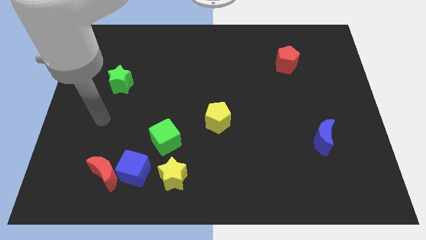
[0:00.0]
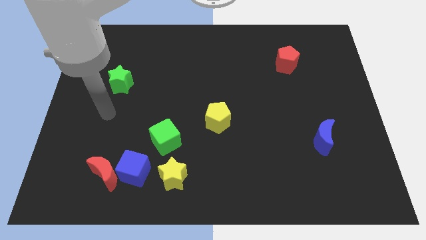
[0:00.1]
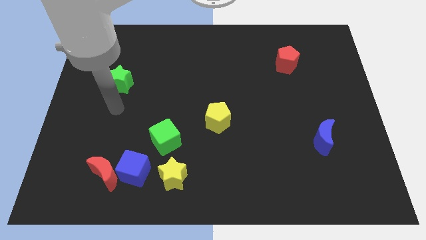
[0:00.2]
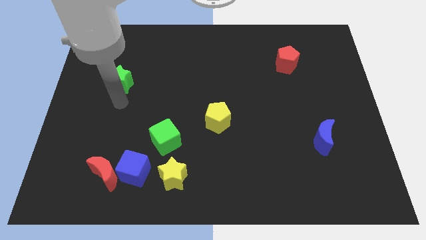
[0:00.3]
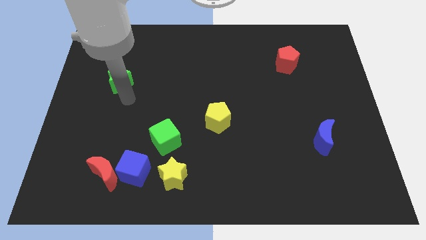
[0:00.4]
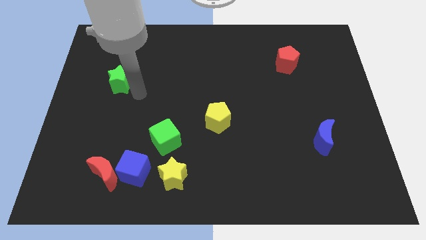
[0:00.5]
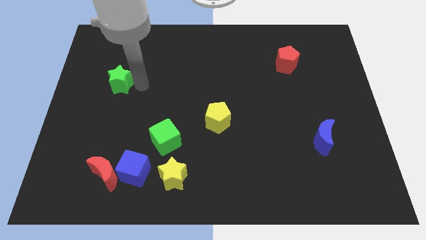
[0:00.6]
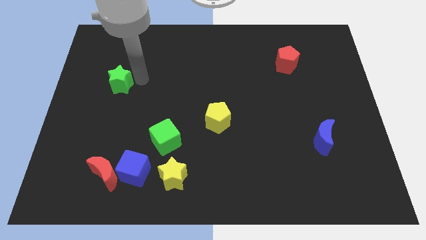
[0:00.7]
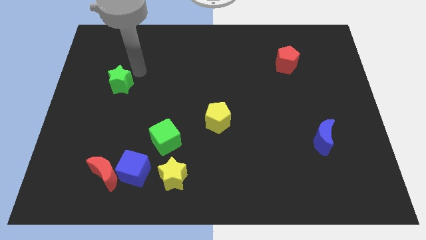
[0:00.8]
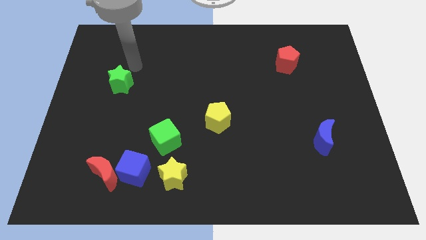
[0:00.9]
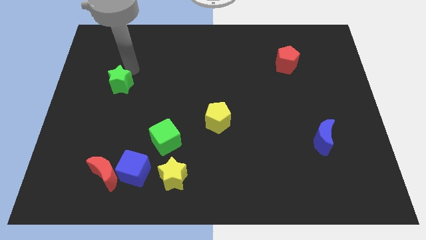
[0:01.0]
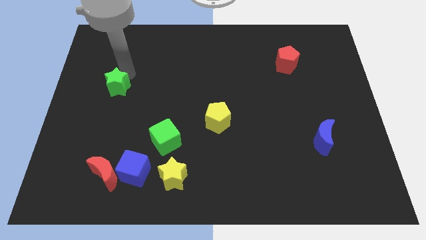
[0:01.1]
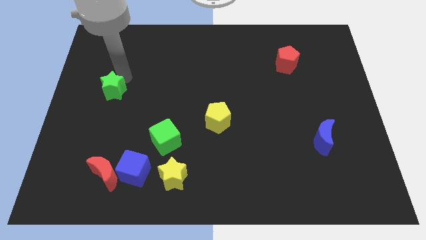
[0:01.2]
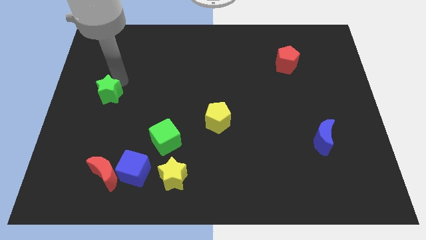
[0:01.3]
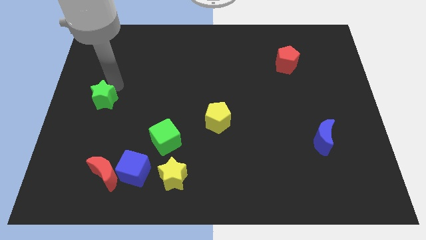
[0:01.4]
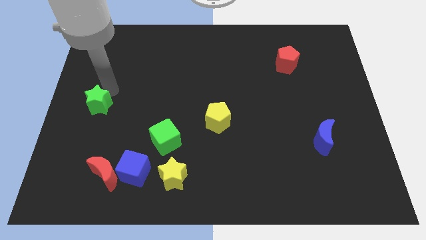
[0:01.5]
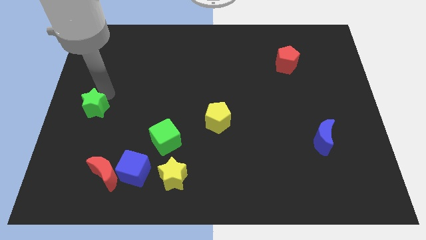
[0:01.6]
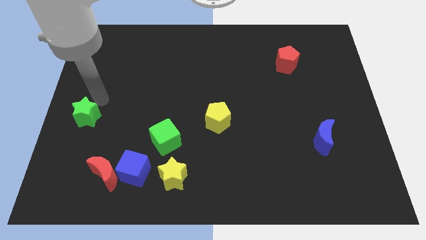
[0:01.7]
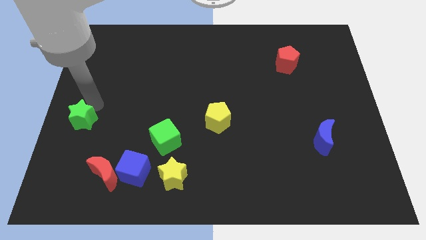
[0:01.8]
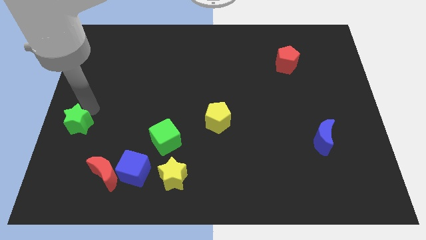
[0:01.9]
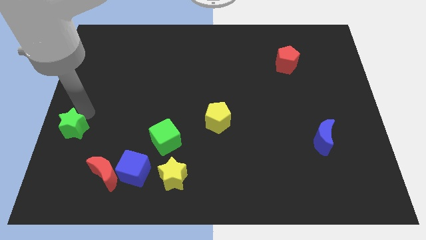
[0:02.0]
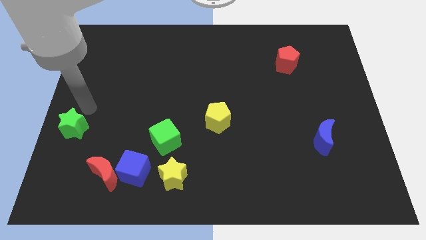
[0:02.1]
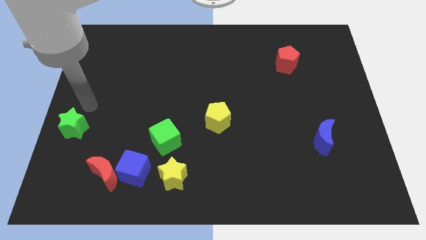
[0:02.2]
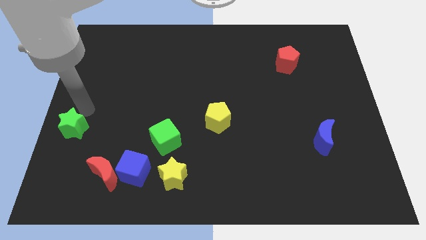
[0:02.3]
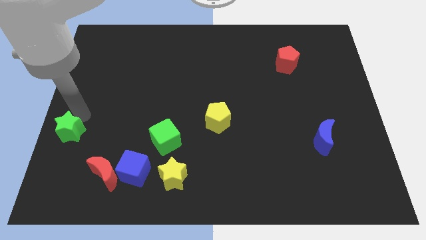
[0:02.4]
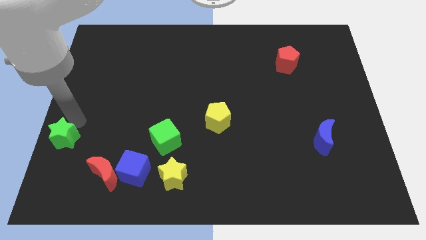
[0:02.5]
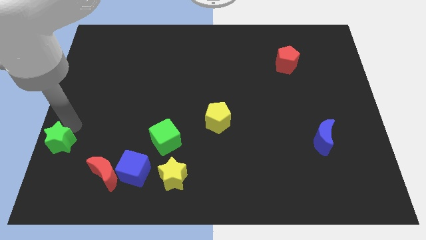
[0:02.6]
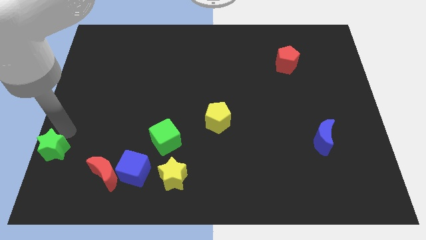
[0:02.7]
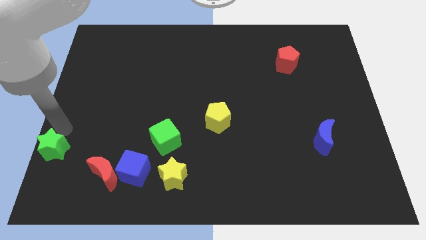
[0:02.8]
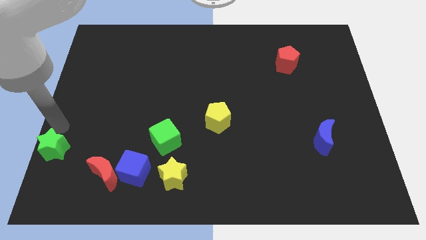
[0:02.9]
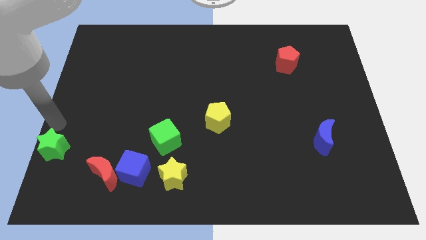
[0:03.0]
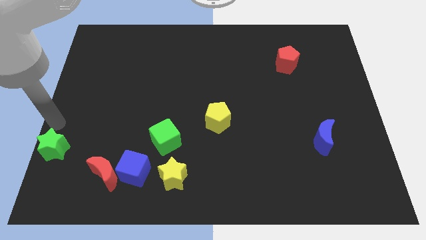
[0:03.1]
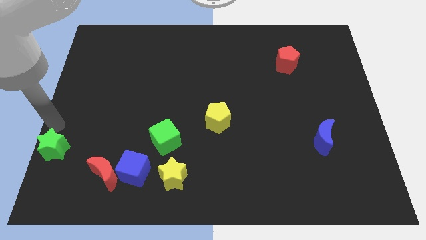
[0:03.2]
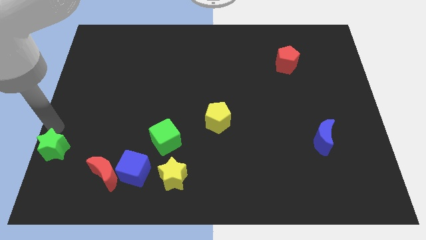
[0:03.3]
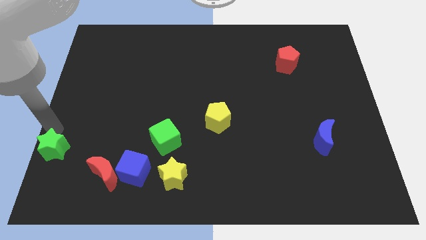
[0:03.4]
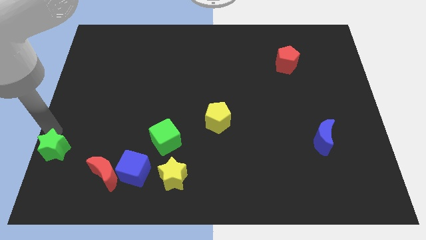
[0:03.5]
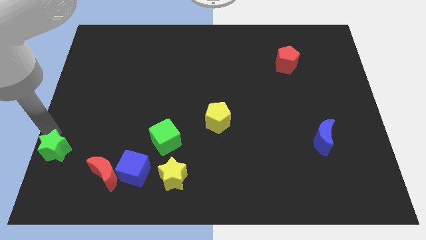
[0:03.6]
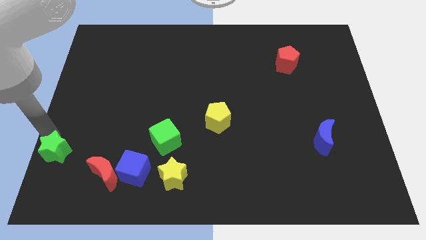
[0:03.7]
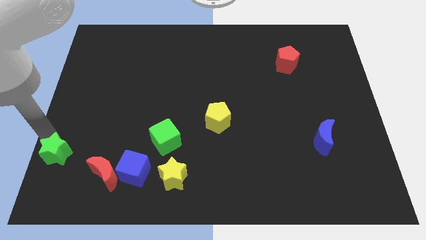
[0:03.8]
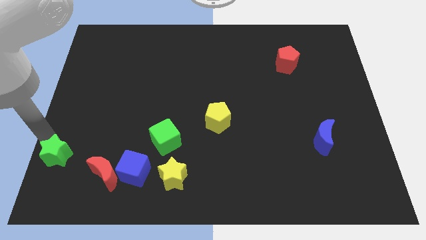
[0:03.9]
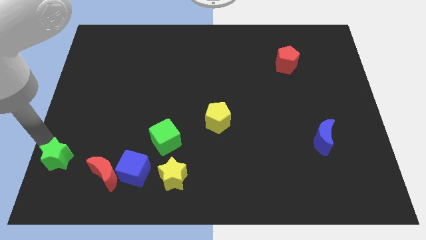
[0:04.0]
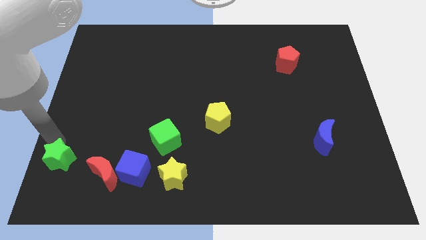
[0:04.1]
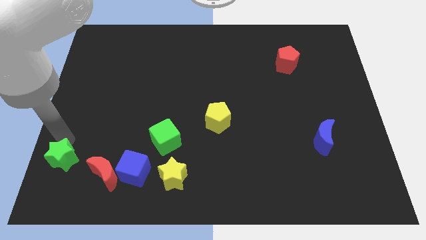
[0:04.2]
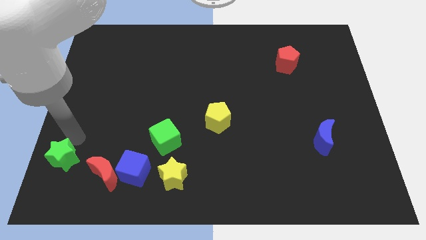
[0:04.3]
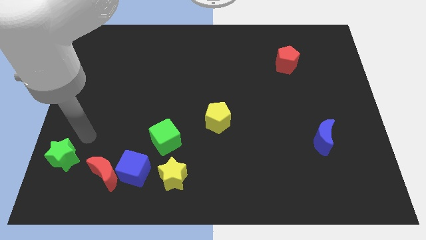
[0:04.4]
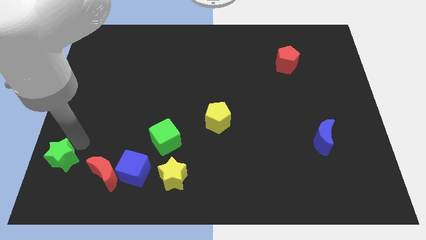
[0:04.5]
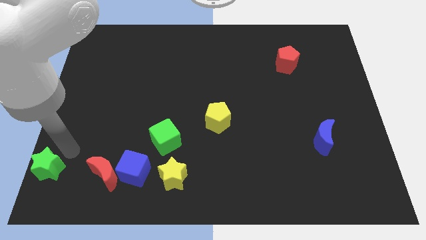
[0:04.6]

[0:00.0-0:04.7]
push the green star to the lower left corner

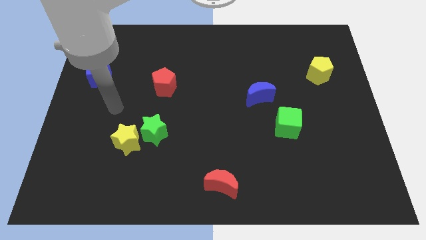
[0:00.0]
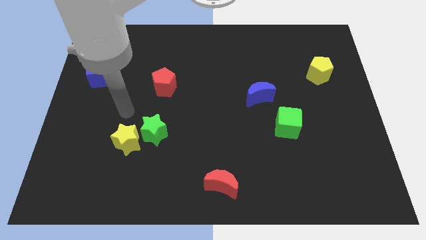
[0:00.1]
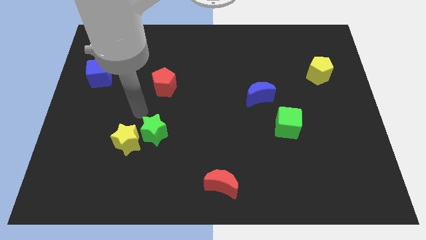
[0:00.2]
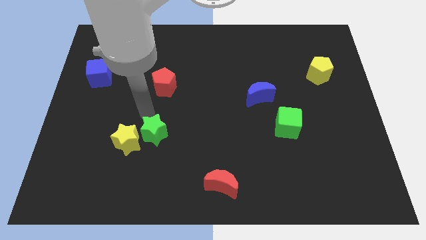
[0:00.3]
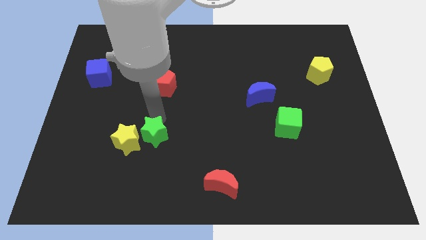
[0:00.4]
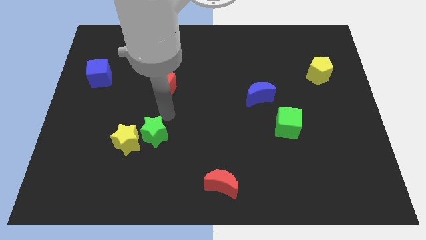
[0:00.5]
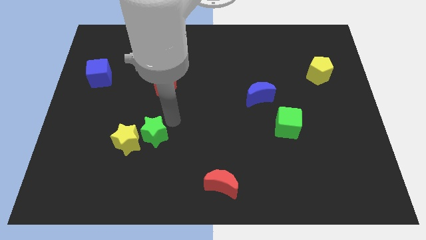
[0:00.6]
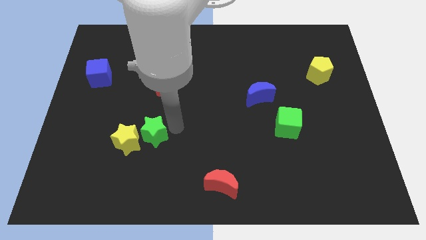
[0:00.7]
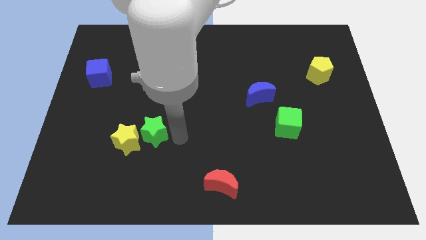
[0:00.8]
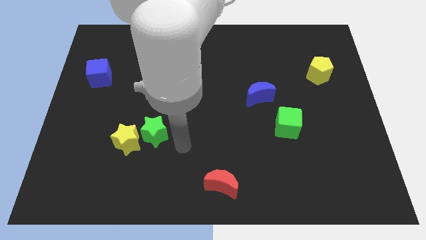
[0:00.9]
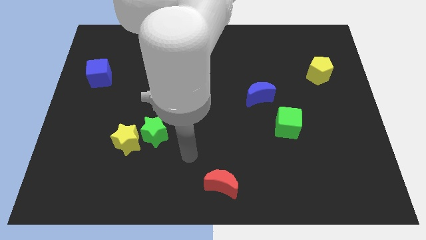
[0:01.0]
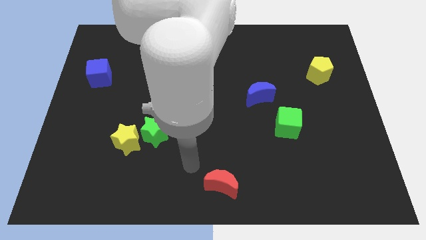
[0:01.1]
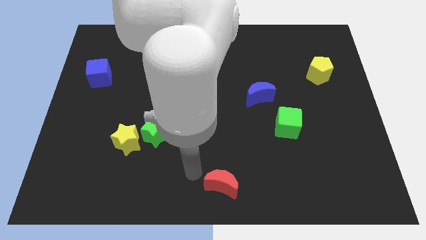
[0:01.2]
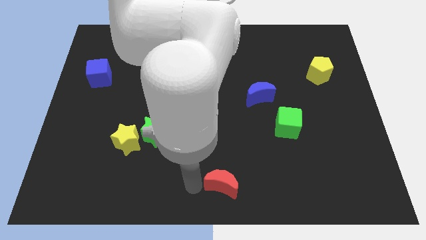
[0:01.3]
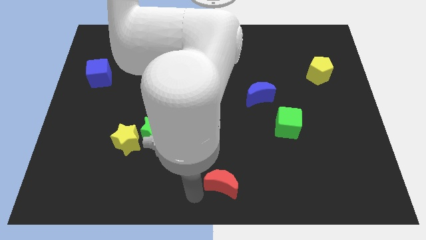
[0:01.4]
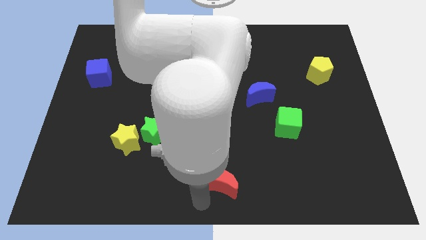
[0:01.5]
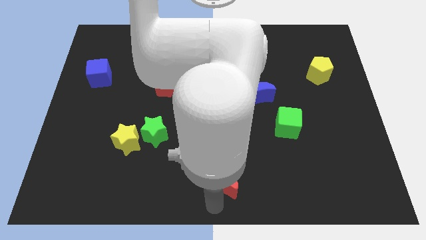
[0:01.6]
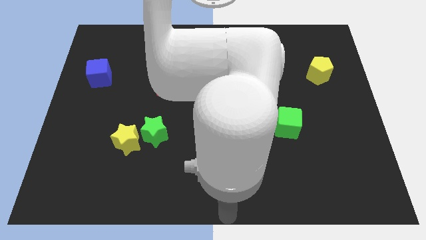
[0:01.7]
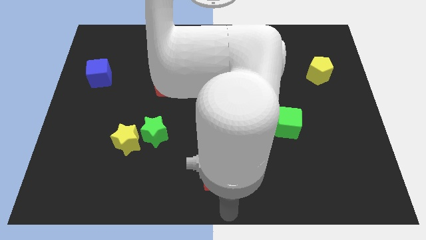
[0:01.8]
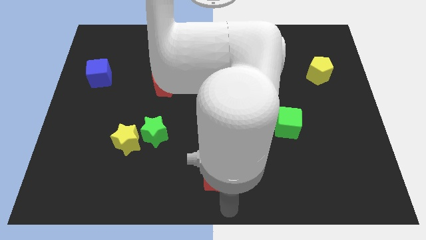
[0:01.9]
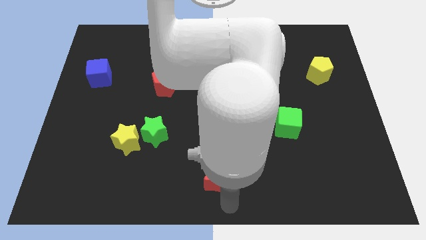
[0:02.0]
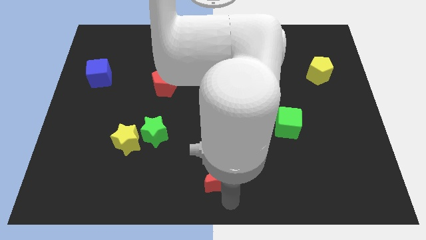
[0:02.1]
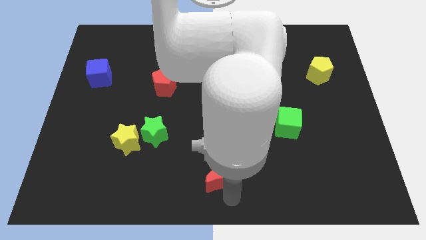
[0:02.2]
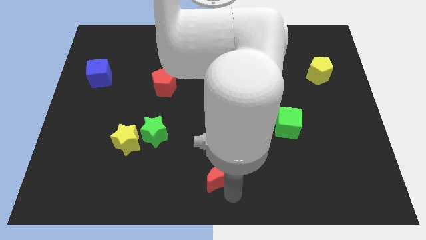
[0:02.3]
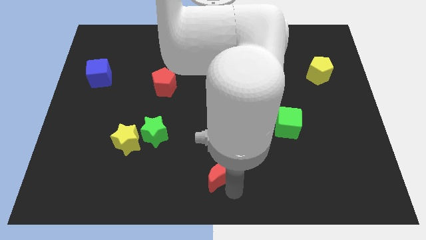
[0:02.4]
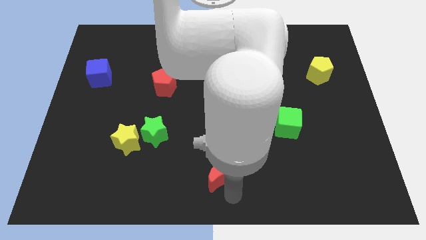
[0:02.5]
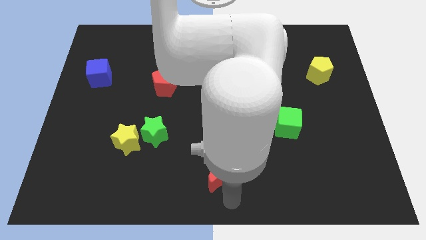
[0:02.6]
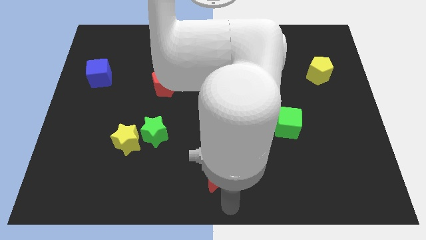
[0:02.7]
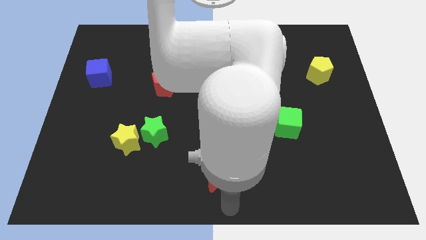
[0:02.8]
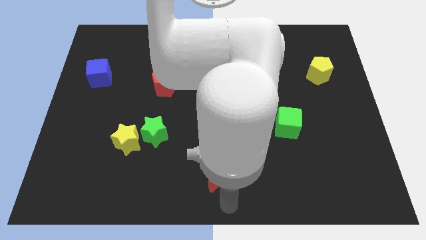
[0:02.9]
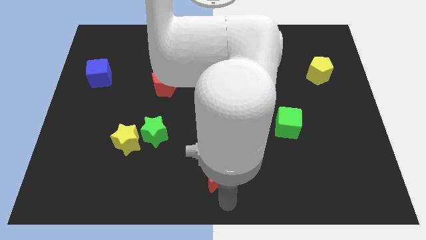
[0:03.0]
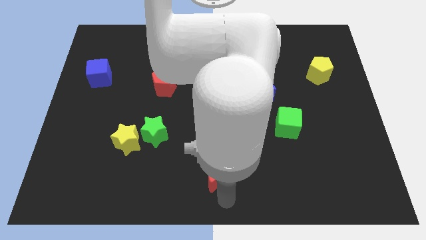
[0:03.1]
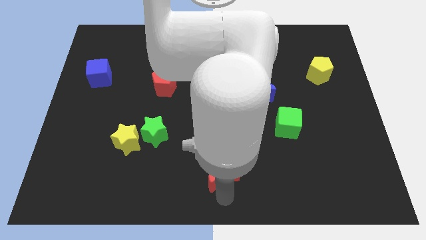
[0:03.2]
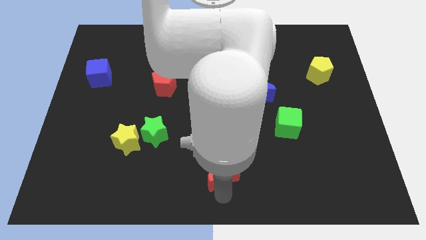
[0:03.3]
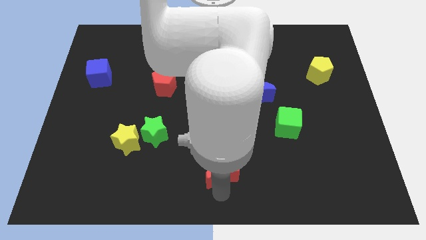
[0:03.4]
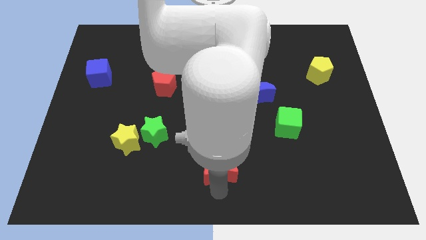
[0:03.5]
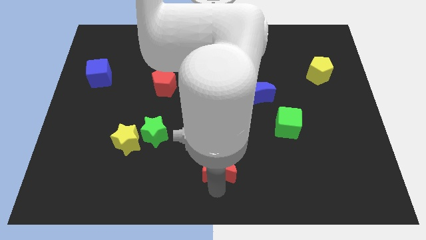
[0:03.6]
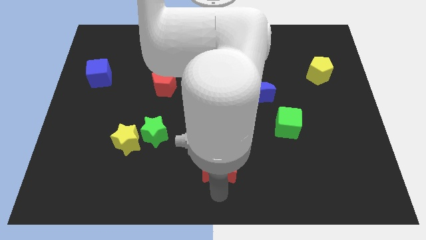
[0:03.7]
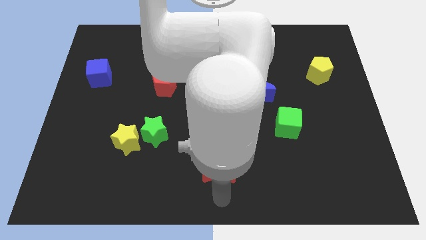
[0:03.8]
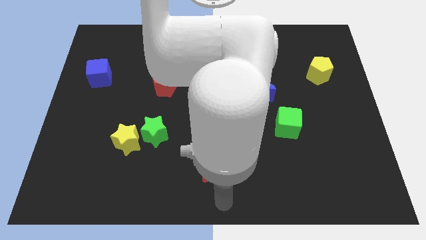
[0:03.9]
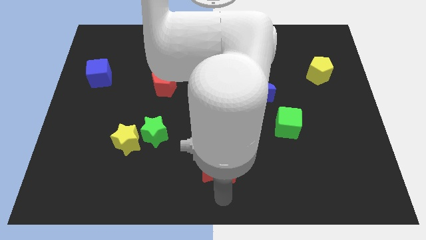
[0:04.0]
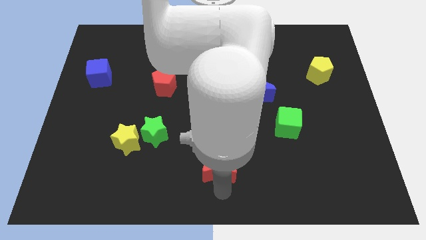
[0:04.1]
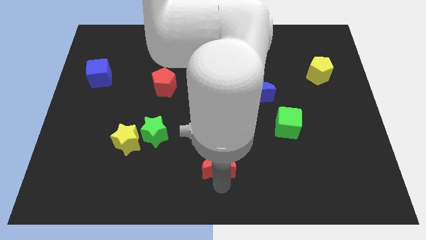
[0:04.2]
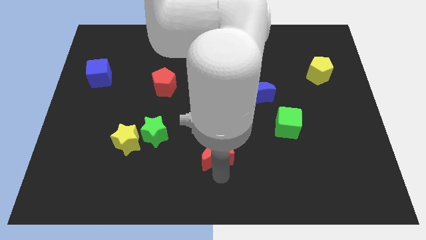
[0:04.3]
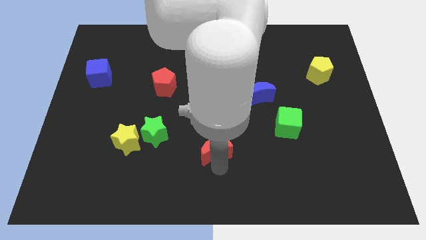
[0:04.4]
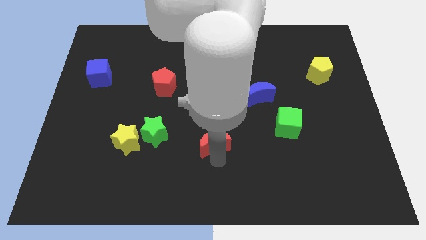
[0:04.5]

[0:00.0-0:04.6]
slide the red moon to the center of the board
